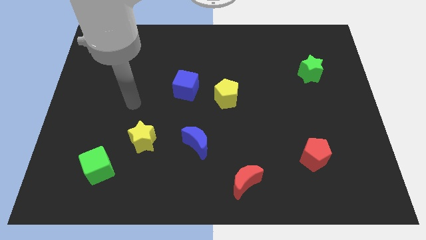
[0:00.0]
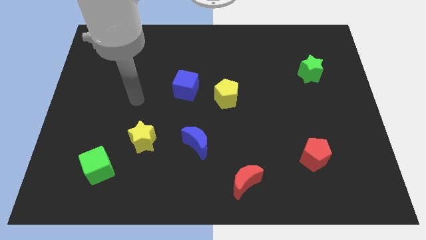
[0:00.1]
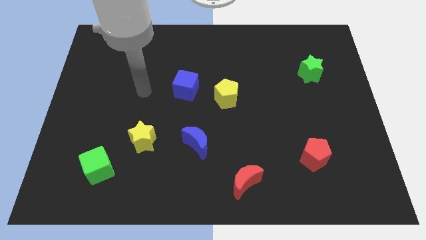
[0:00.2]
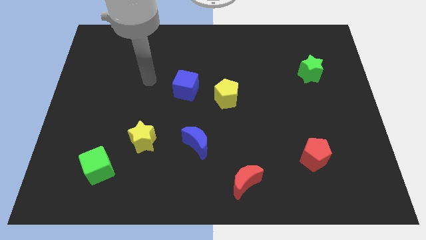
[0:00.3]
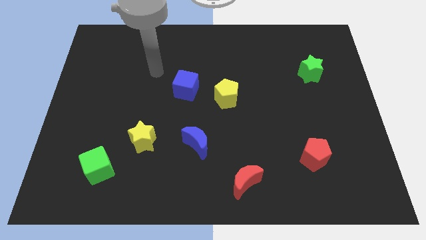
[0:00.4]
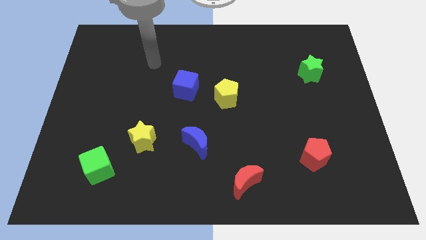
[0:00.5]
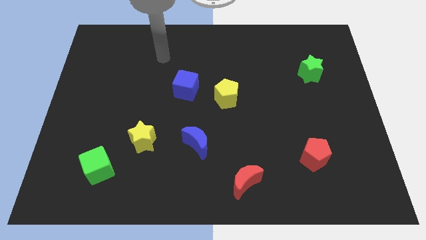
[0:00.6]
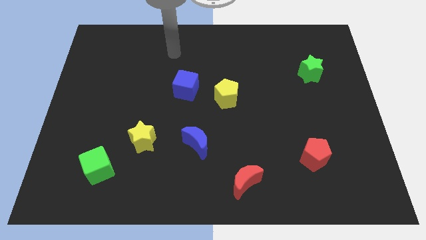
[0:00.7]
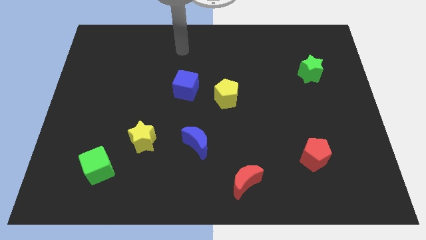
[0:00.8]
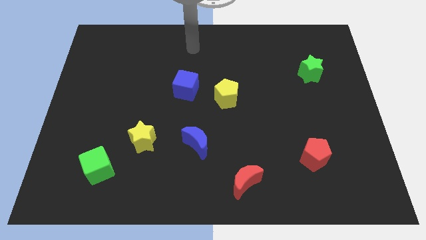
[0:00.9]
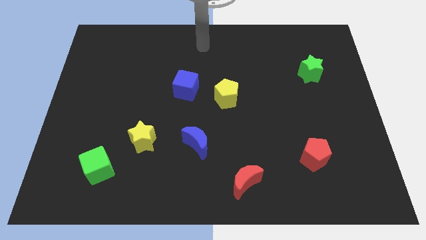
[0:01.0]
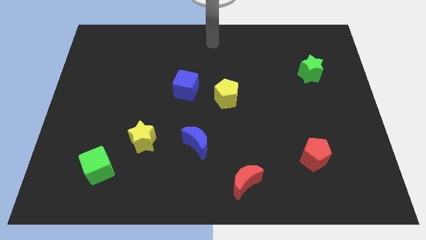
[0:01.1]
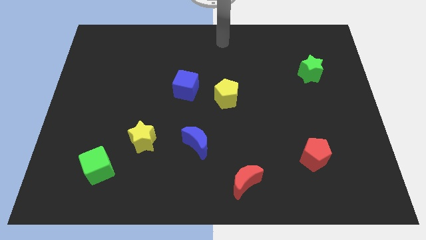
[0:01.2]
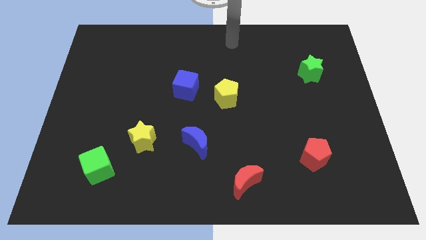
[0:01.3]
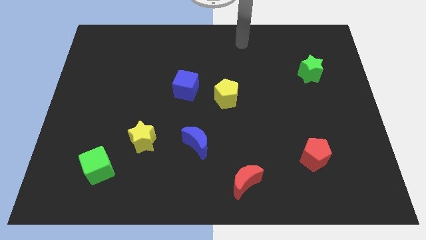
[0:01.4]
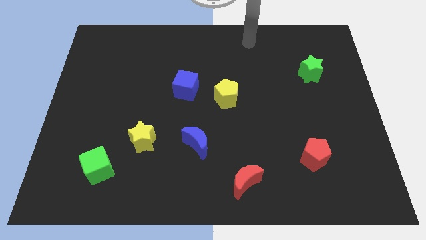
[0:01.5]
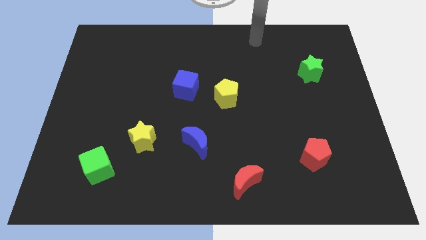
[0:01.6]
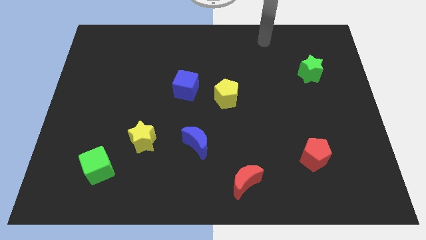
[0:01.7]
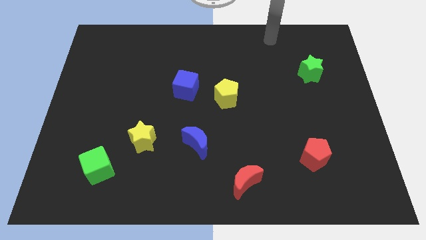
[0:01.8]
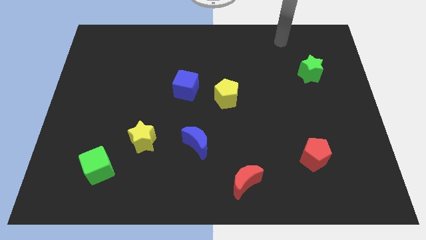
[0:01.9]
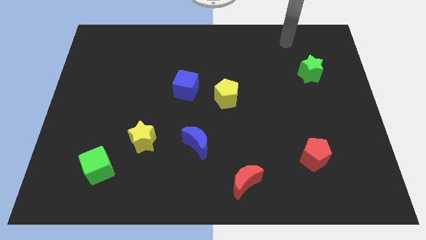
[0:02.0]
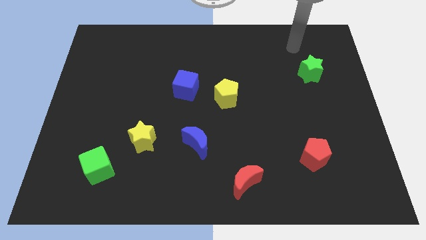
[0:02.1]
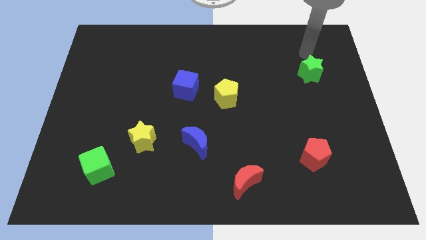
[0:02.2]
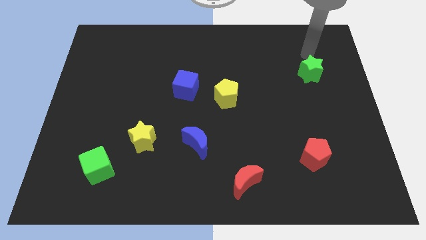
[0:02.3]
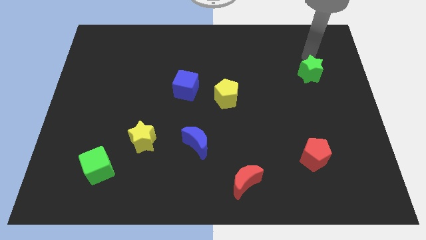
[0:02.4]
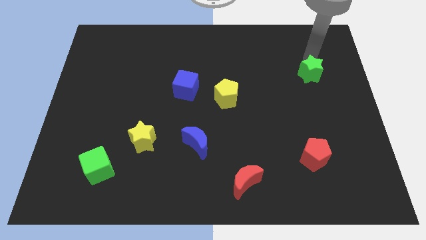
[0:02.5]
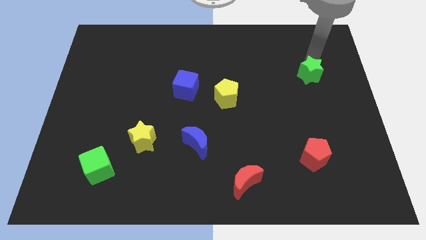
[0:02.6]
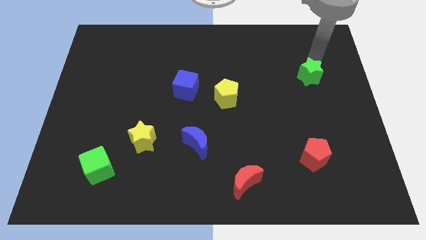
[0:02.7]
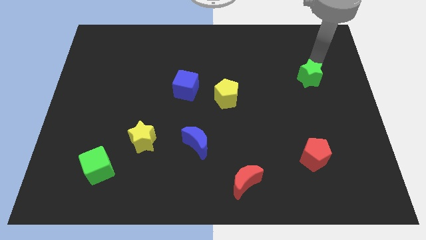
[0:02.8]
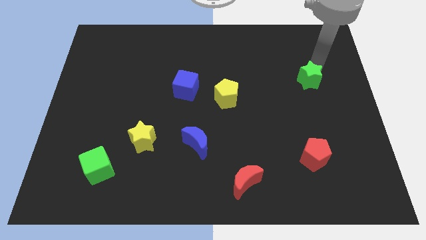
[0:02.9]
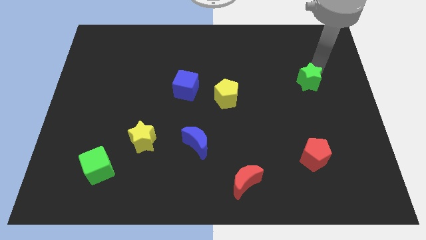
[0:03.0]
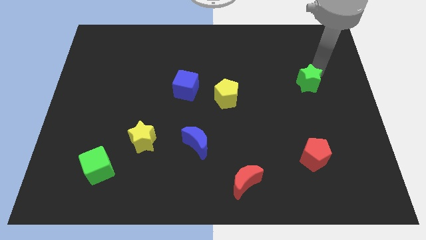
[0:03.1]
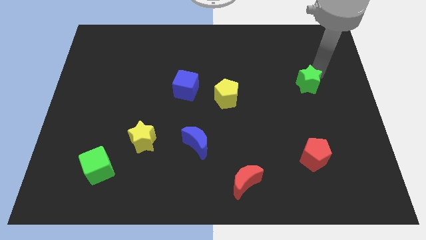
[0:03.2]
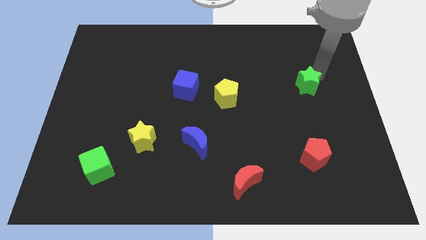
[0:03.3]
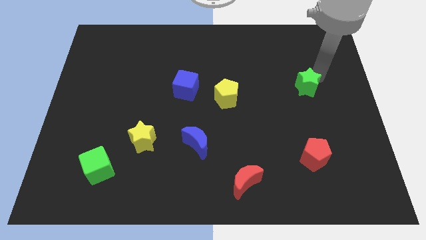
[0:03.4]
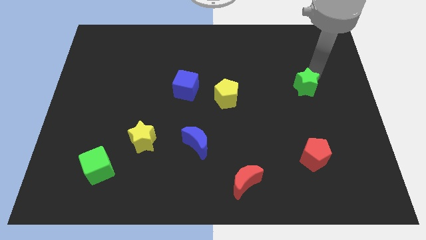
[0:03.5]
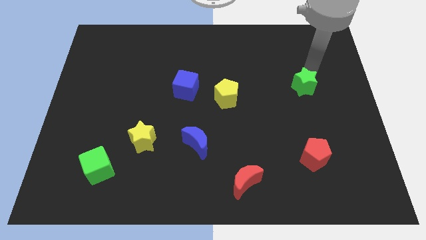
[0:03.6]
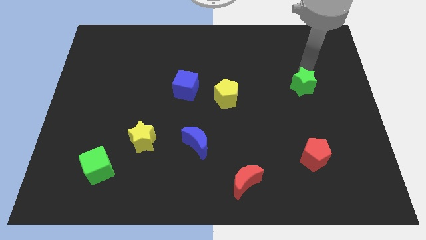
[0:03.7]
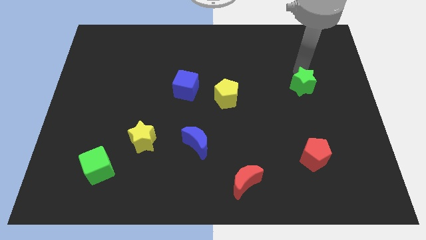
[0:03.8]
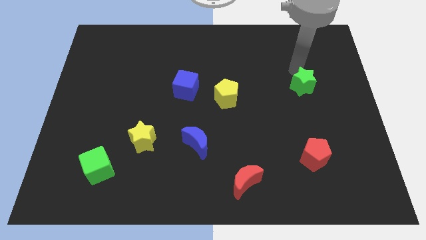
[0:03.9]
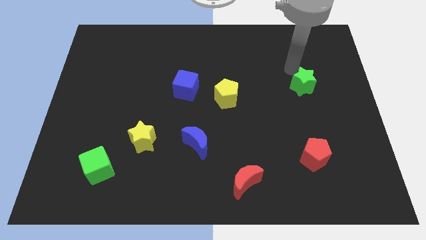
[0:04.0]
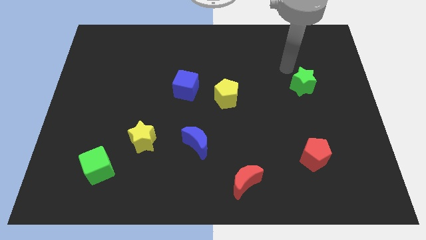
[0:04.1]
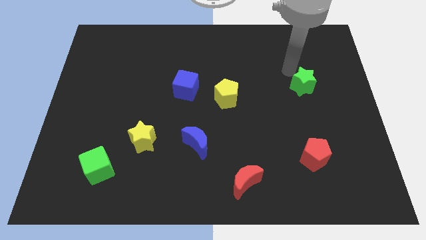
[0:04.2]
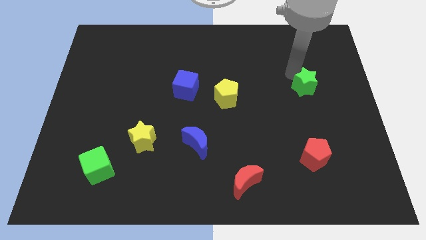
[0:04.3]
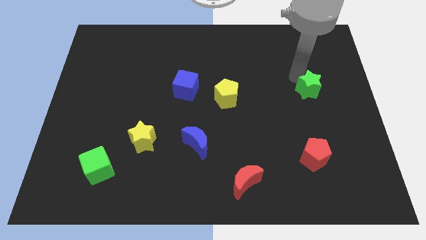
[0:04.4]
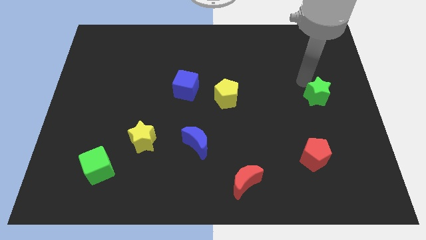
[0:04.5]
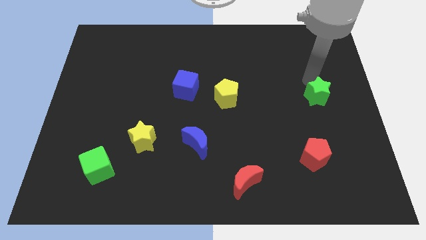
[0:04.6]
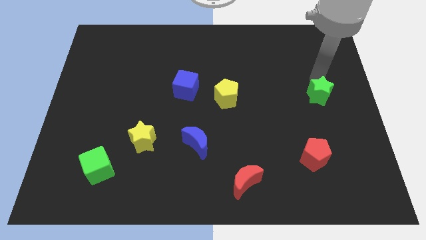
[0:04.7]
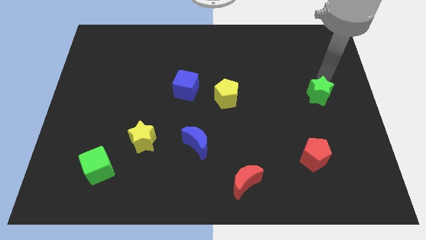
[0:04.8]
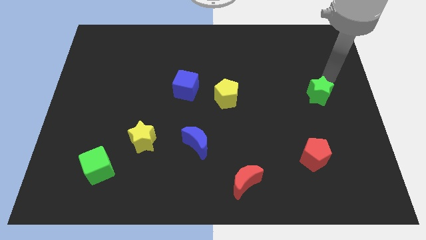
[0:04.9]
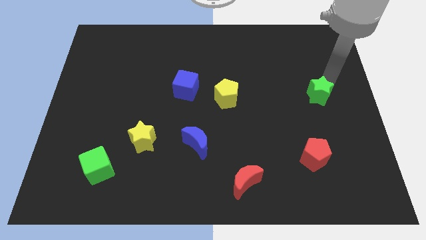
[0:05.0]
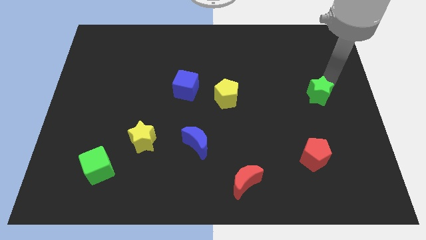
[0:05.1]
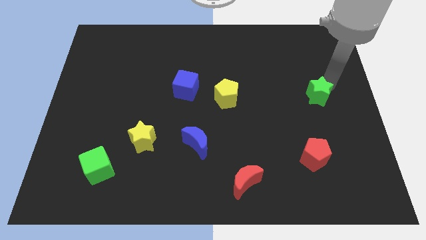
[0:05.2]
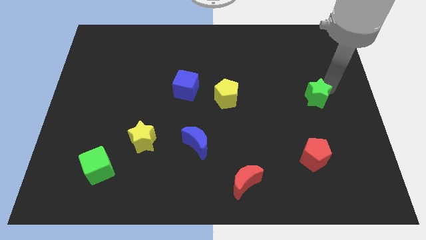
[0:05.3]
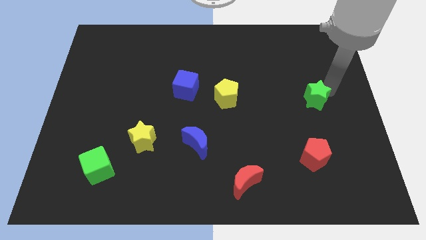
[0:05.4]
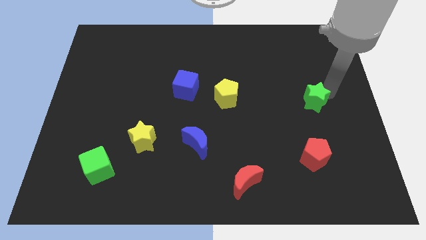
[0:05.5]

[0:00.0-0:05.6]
push the green star to the top of the red pentagon
